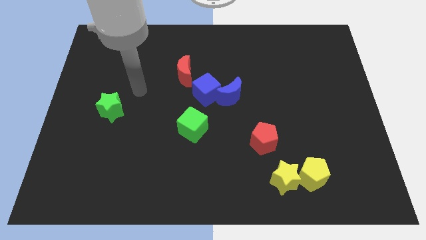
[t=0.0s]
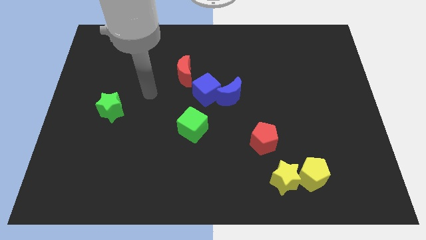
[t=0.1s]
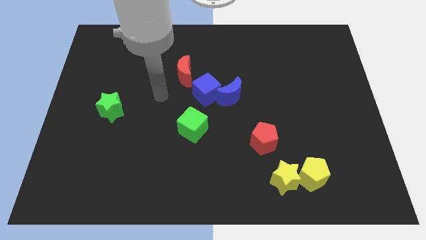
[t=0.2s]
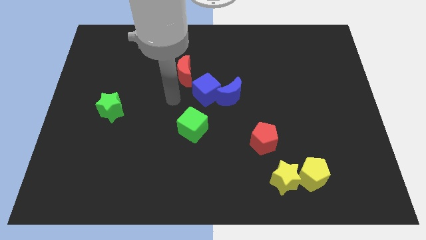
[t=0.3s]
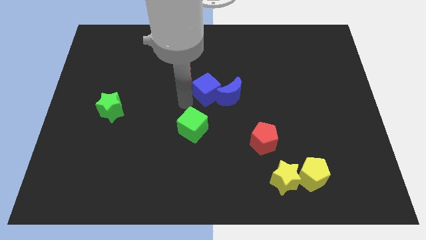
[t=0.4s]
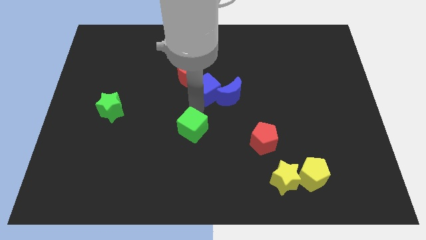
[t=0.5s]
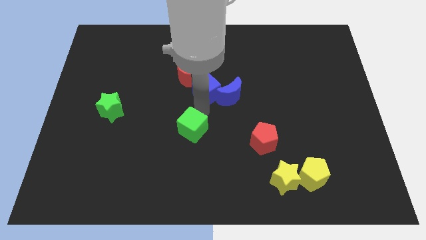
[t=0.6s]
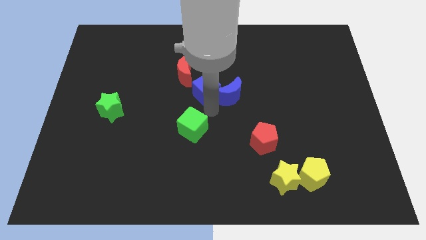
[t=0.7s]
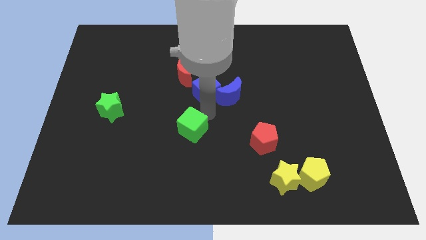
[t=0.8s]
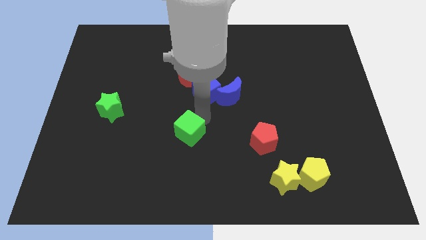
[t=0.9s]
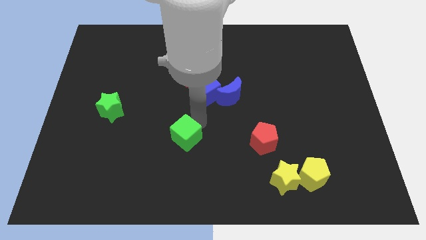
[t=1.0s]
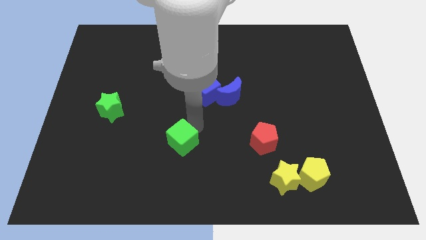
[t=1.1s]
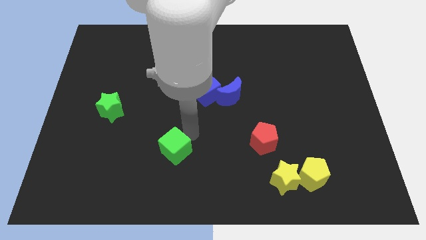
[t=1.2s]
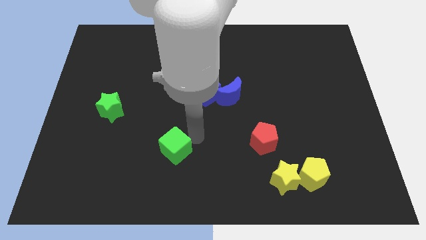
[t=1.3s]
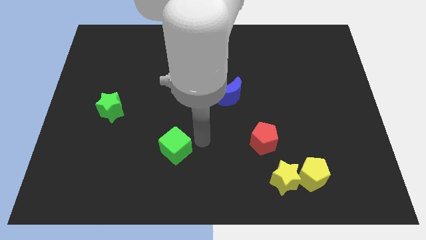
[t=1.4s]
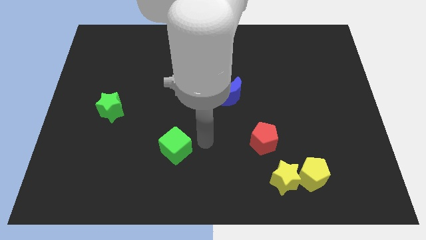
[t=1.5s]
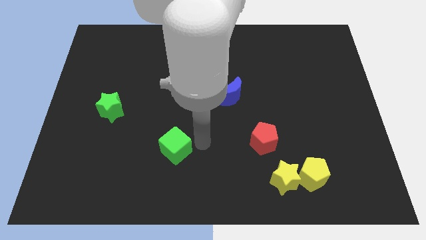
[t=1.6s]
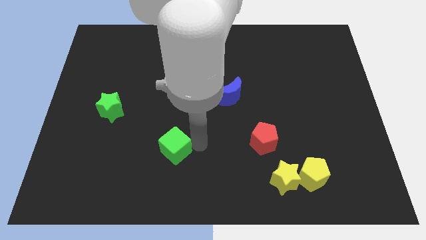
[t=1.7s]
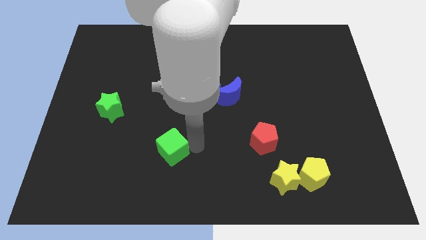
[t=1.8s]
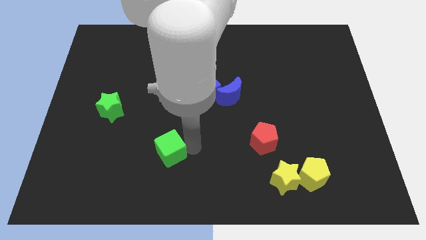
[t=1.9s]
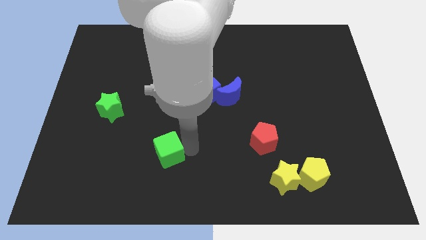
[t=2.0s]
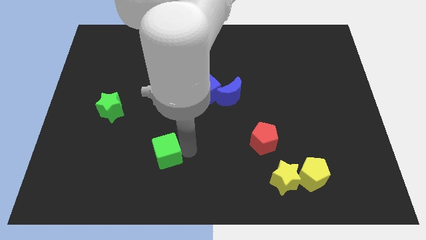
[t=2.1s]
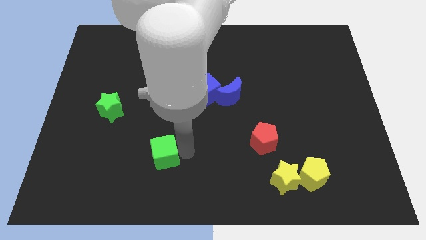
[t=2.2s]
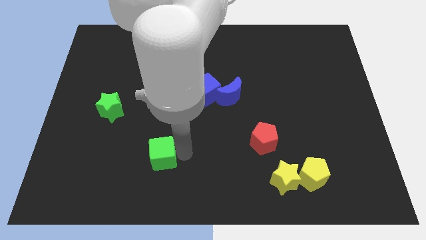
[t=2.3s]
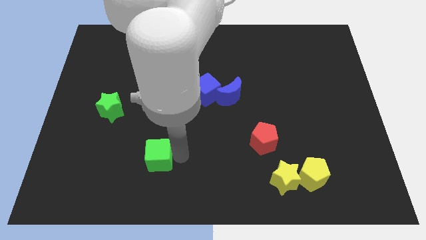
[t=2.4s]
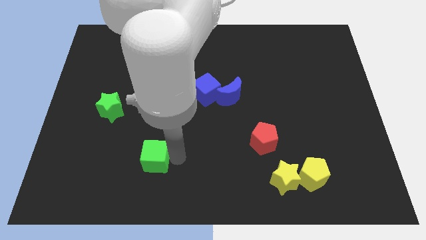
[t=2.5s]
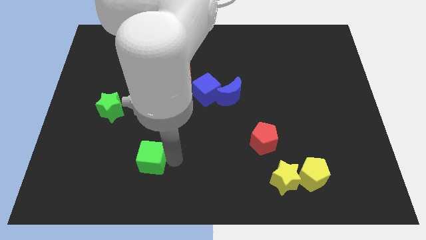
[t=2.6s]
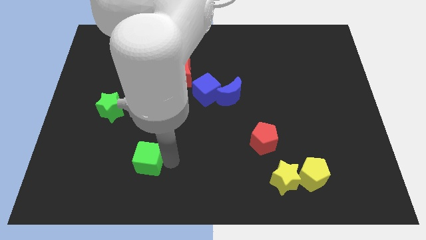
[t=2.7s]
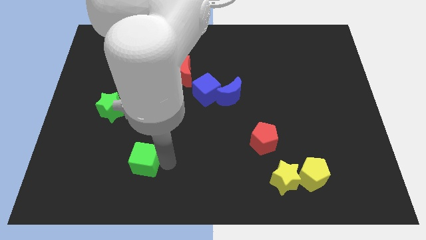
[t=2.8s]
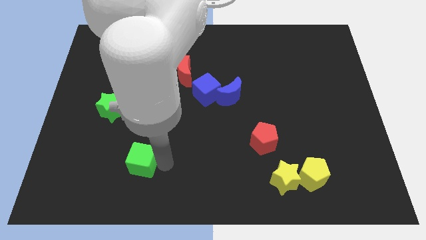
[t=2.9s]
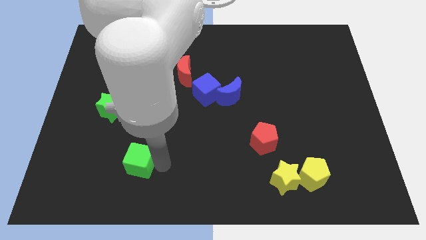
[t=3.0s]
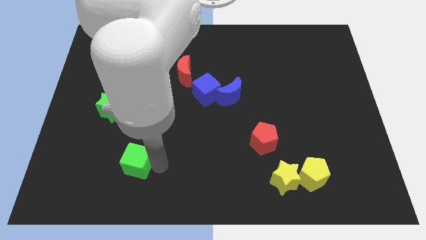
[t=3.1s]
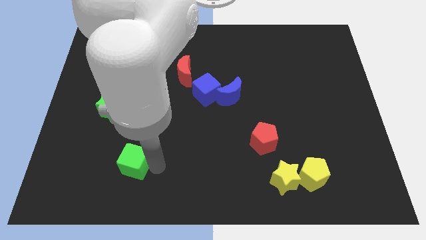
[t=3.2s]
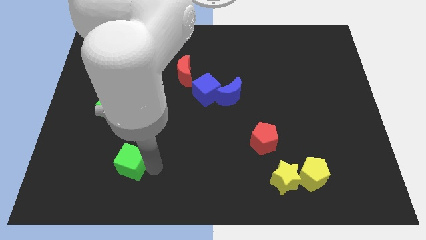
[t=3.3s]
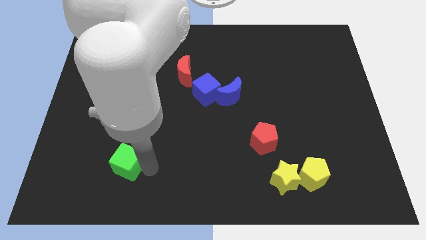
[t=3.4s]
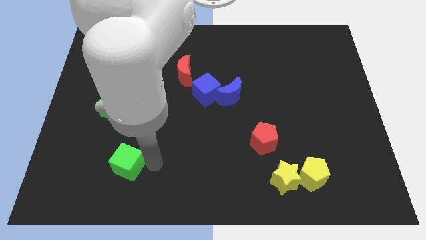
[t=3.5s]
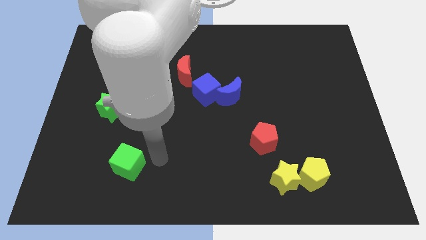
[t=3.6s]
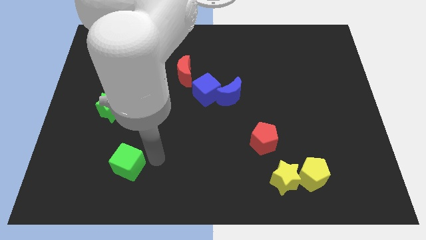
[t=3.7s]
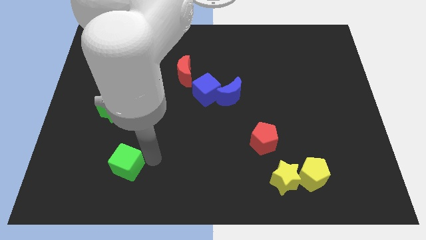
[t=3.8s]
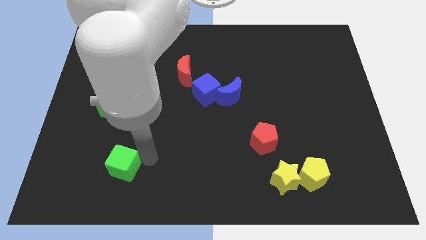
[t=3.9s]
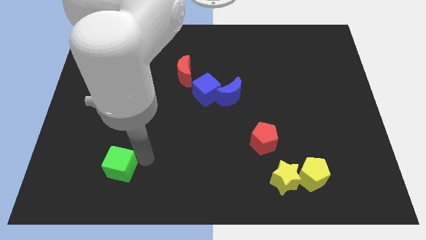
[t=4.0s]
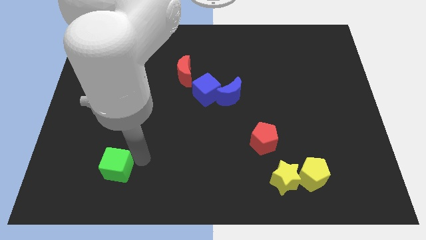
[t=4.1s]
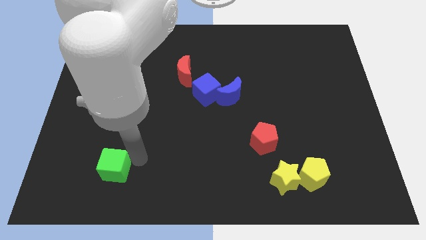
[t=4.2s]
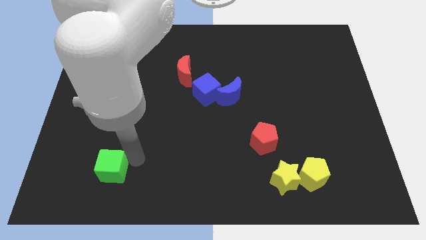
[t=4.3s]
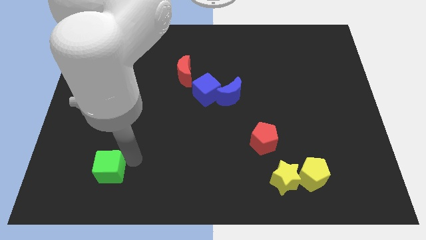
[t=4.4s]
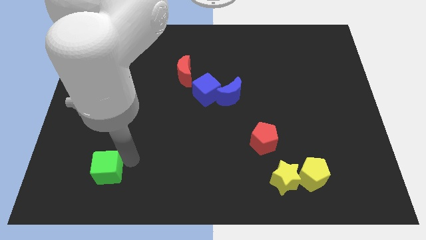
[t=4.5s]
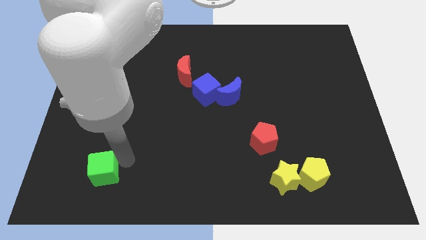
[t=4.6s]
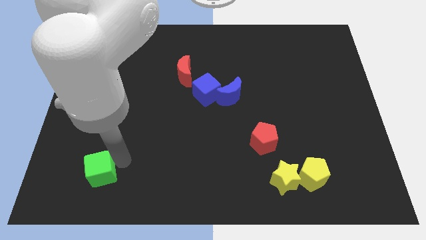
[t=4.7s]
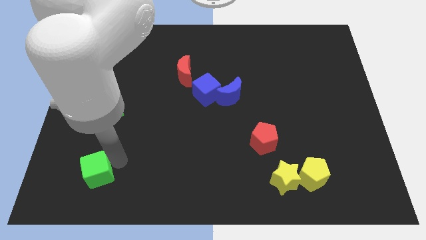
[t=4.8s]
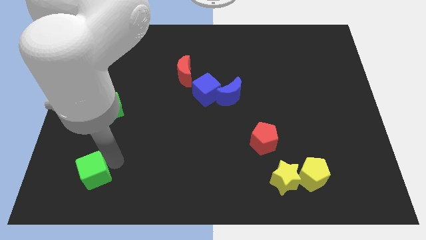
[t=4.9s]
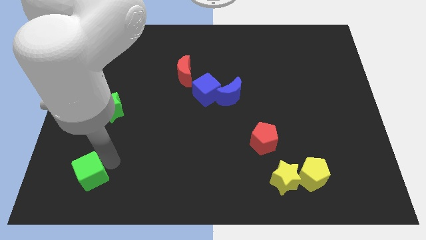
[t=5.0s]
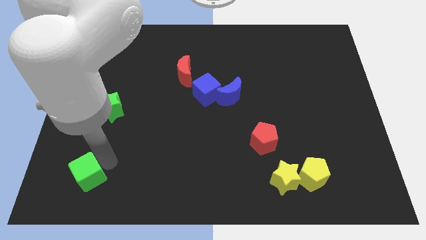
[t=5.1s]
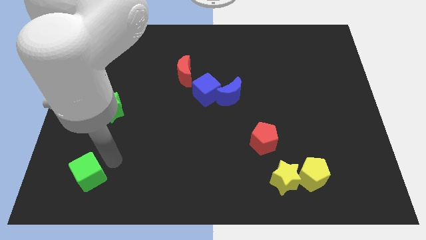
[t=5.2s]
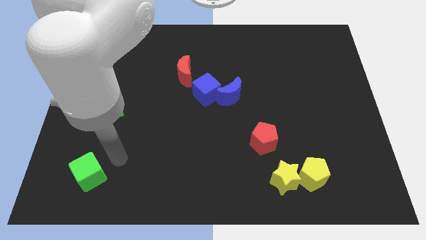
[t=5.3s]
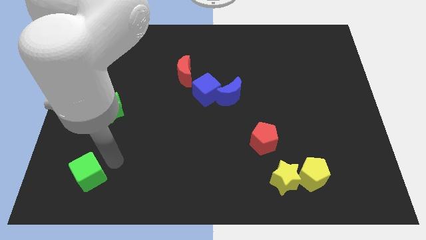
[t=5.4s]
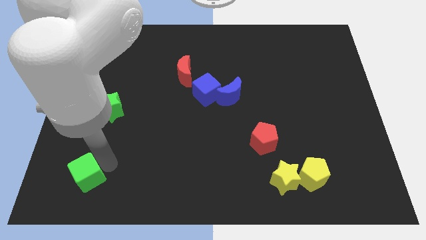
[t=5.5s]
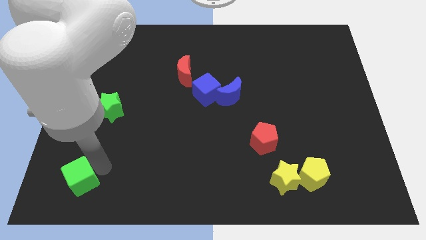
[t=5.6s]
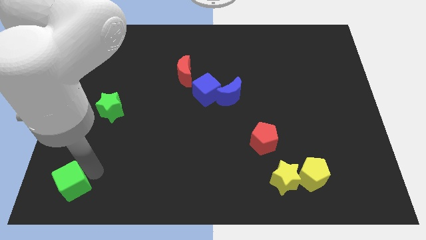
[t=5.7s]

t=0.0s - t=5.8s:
move the green cube to the bottom left corner
